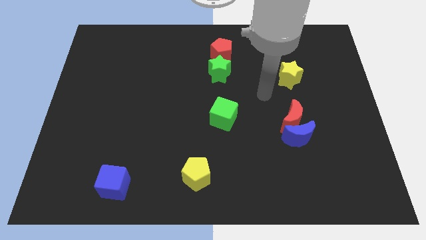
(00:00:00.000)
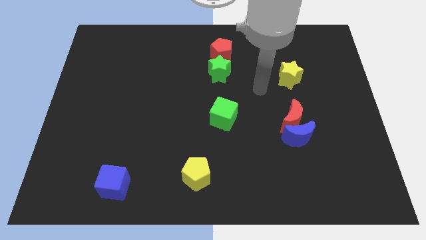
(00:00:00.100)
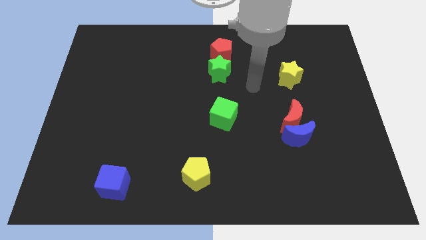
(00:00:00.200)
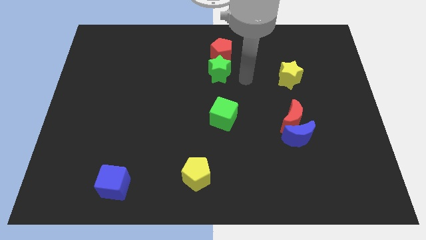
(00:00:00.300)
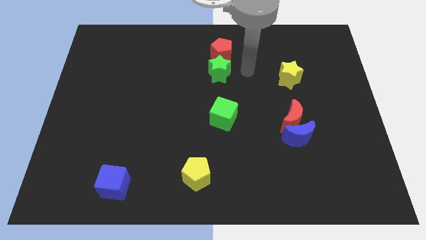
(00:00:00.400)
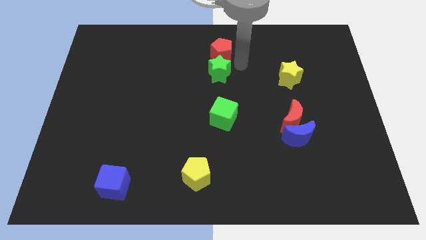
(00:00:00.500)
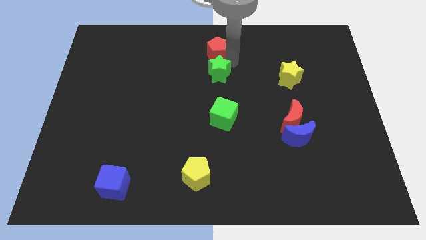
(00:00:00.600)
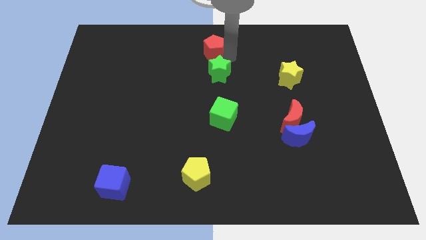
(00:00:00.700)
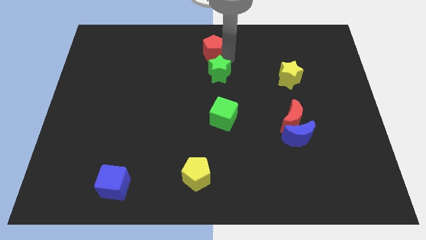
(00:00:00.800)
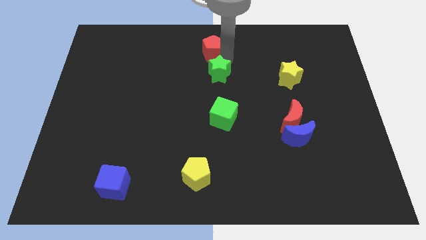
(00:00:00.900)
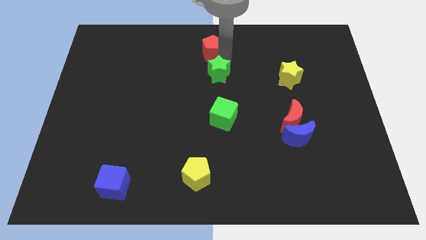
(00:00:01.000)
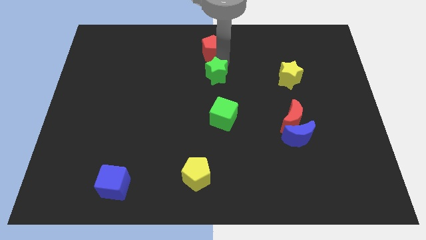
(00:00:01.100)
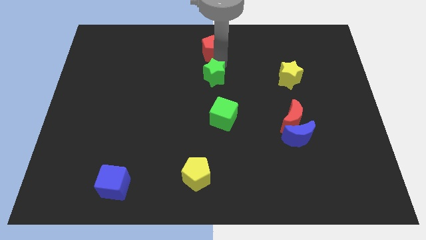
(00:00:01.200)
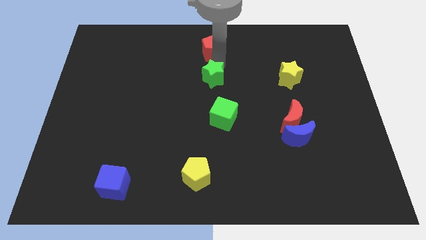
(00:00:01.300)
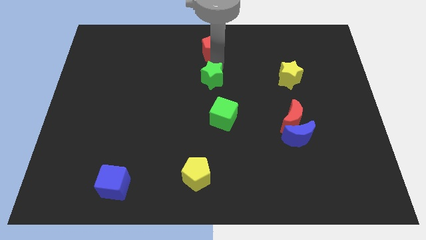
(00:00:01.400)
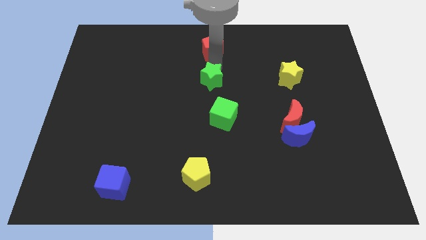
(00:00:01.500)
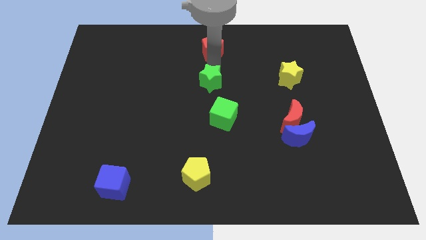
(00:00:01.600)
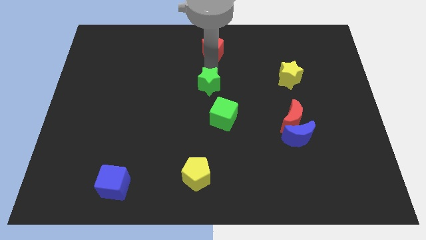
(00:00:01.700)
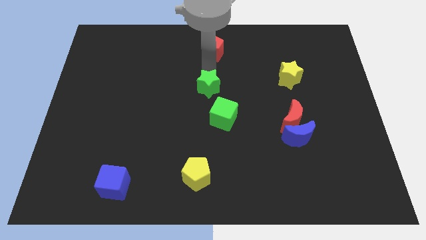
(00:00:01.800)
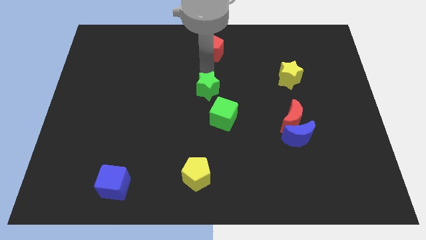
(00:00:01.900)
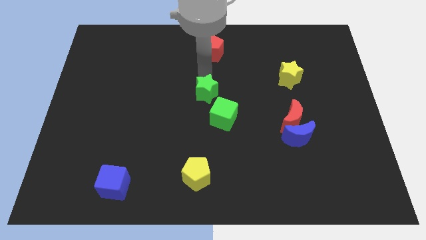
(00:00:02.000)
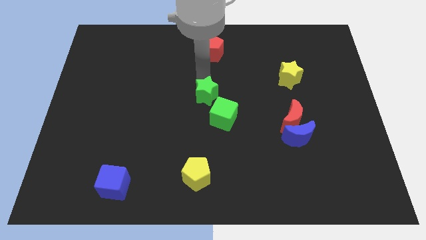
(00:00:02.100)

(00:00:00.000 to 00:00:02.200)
slide the green star down somewhat

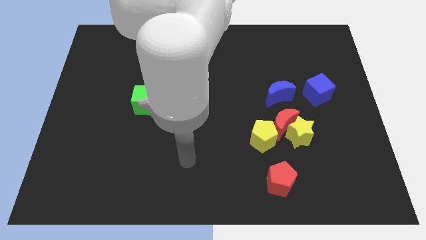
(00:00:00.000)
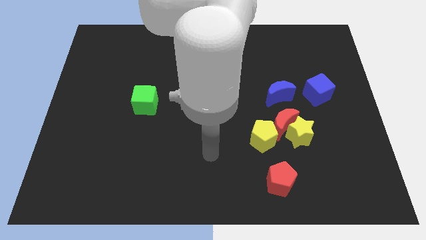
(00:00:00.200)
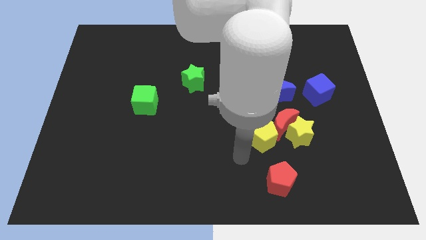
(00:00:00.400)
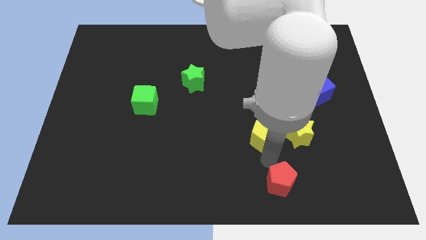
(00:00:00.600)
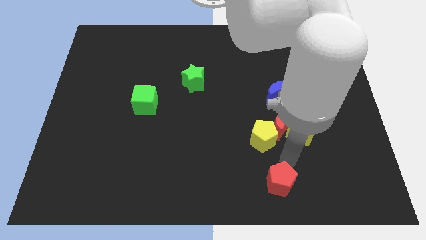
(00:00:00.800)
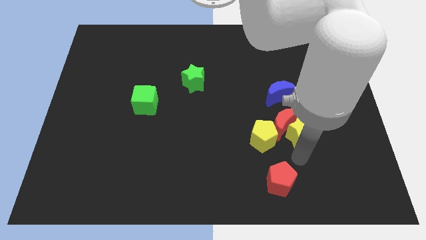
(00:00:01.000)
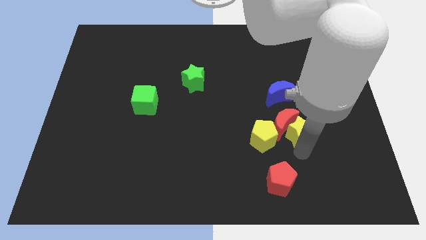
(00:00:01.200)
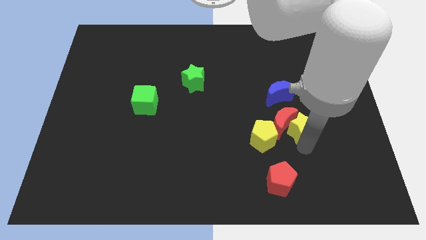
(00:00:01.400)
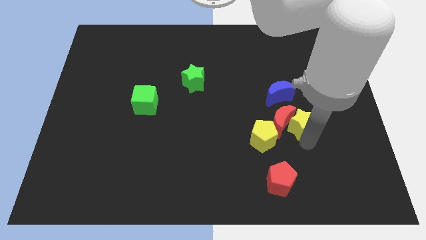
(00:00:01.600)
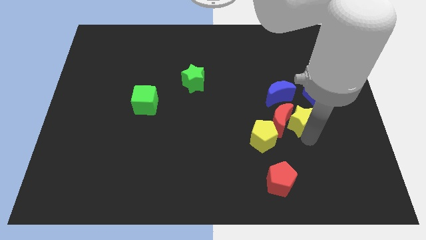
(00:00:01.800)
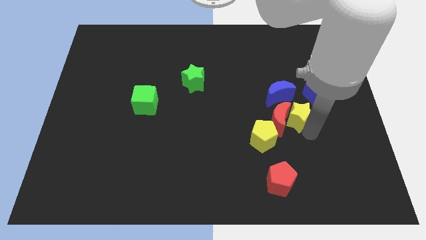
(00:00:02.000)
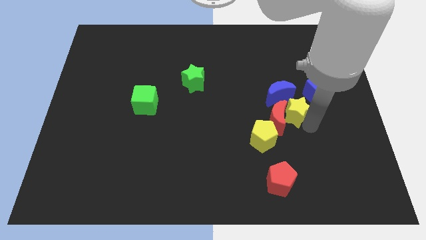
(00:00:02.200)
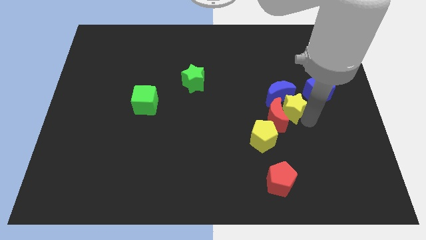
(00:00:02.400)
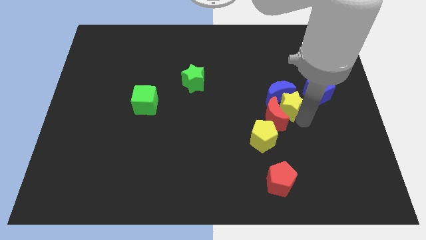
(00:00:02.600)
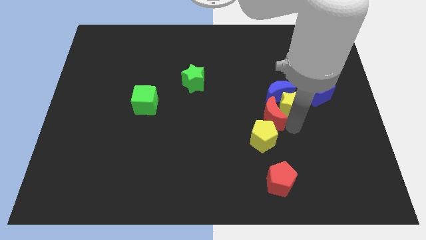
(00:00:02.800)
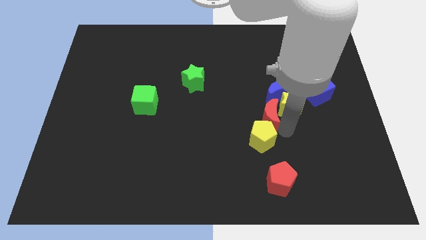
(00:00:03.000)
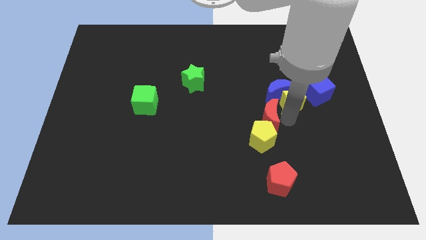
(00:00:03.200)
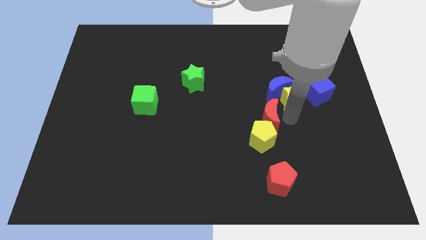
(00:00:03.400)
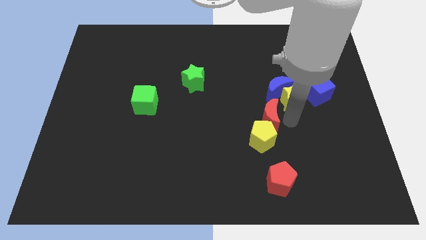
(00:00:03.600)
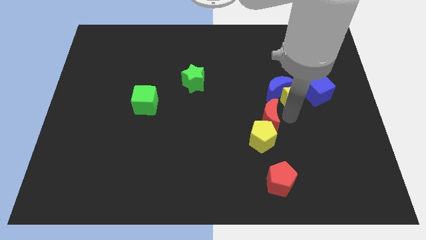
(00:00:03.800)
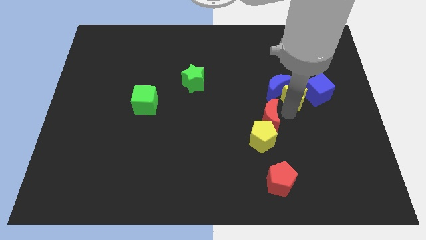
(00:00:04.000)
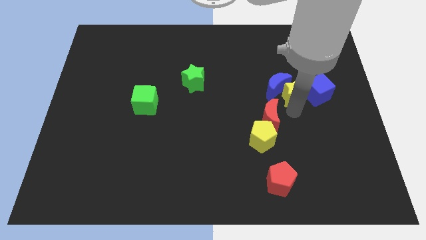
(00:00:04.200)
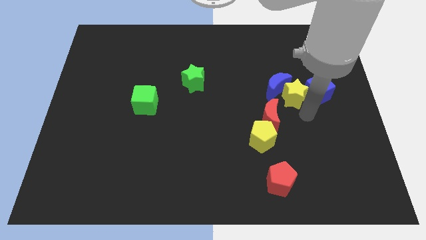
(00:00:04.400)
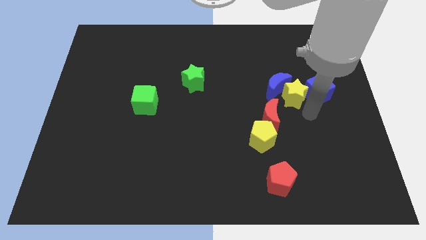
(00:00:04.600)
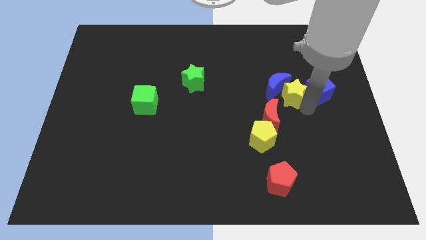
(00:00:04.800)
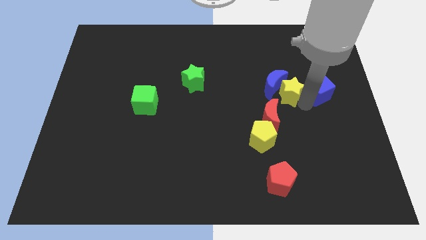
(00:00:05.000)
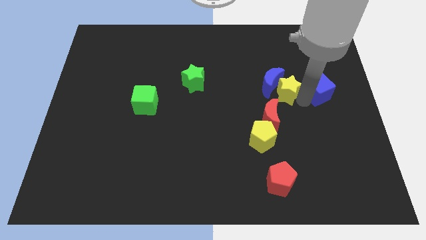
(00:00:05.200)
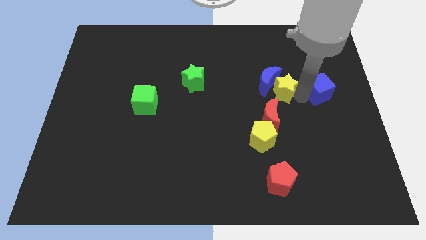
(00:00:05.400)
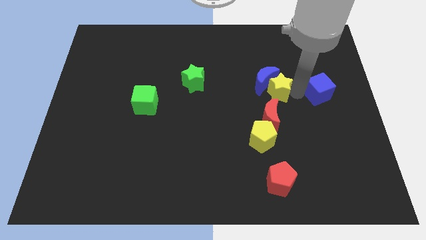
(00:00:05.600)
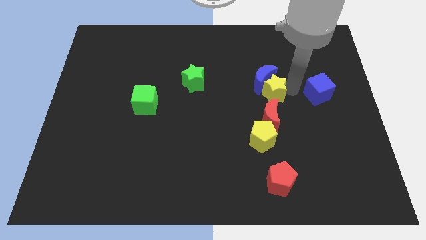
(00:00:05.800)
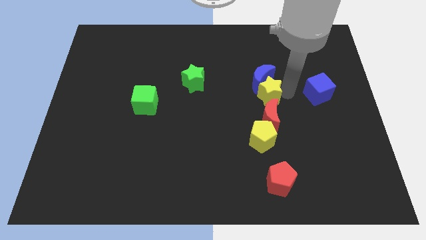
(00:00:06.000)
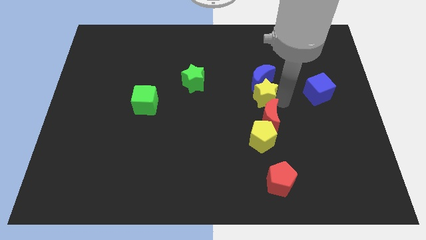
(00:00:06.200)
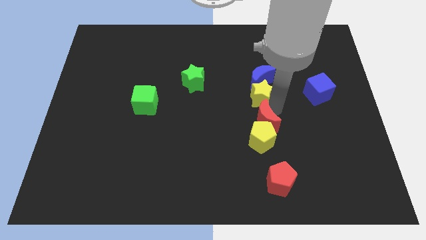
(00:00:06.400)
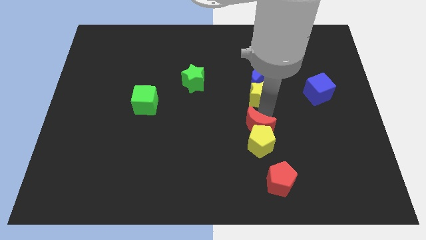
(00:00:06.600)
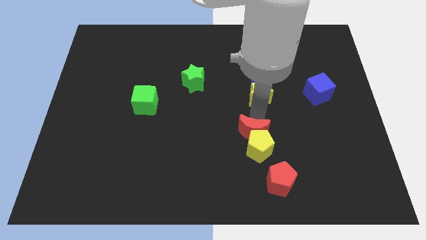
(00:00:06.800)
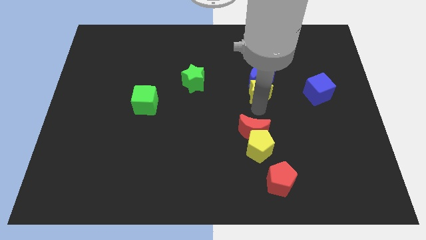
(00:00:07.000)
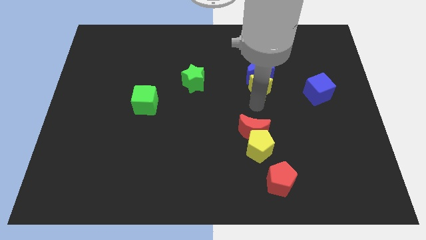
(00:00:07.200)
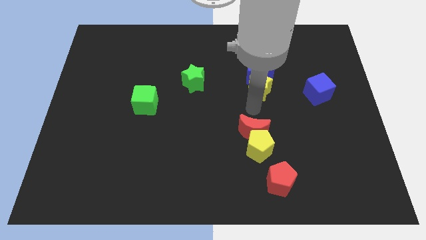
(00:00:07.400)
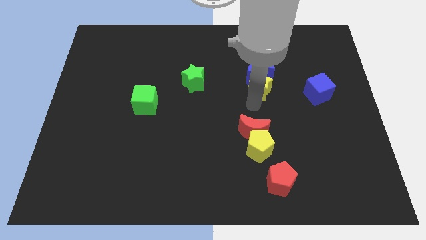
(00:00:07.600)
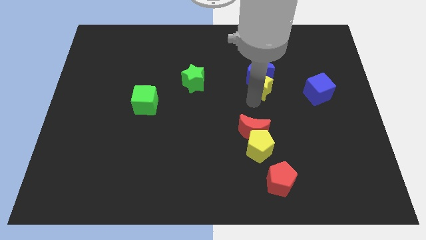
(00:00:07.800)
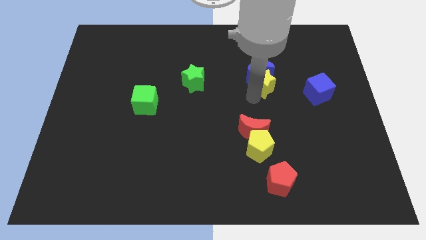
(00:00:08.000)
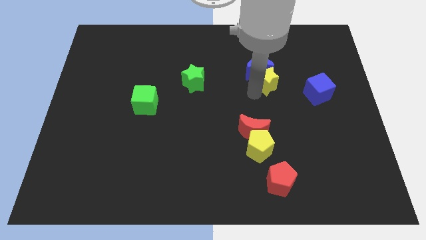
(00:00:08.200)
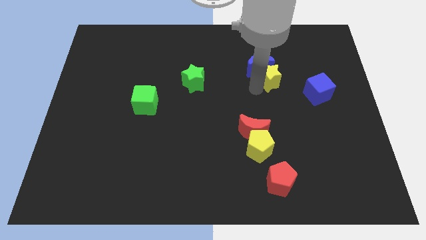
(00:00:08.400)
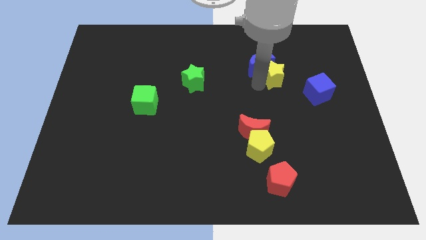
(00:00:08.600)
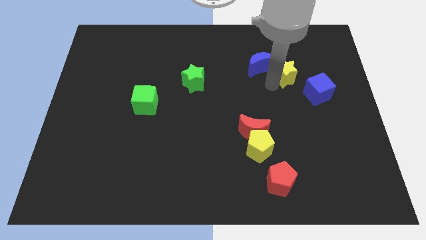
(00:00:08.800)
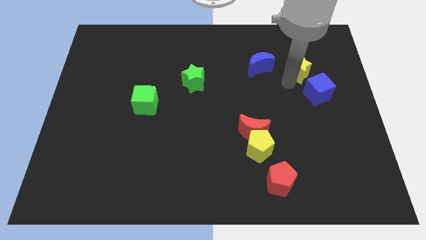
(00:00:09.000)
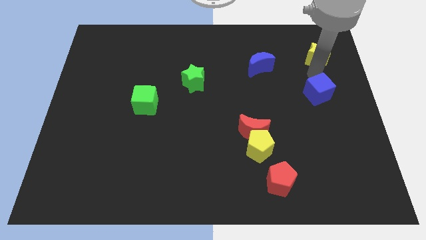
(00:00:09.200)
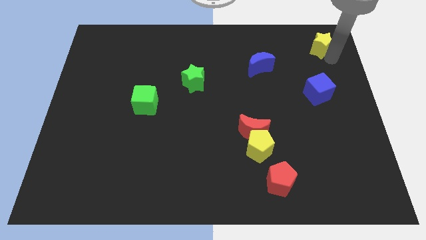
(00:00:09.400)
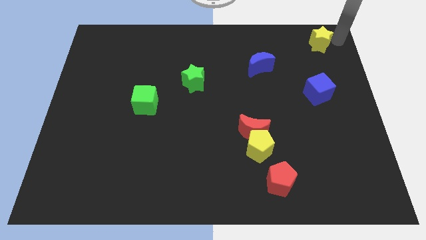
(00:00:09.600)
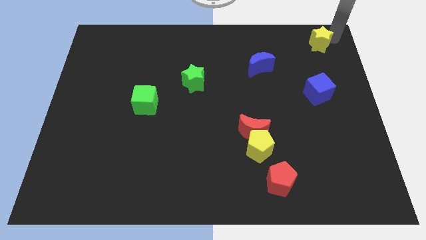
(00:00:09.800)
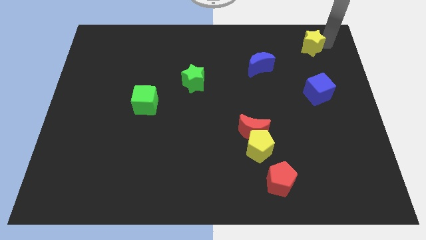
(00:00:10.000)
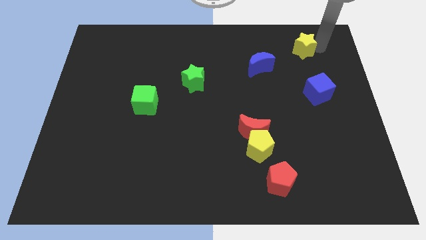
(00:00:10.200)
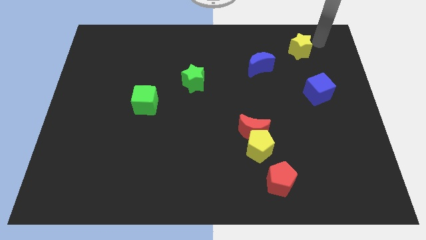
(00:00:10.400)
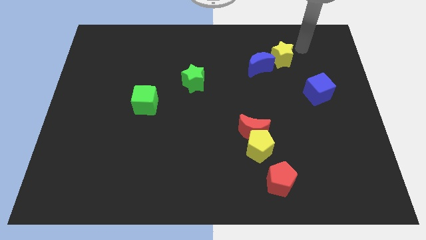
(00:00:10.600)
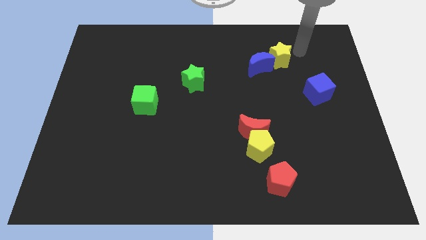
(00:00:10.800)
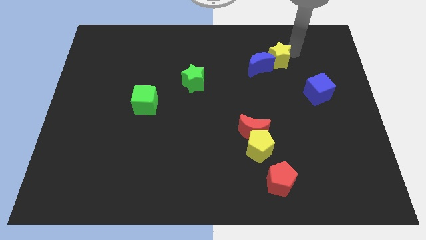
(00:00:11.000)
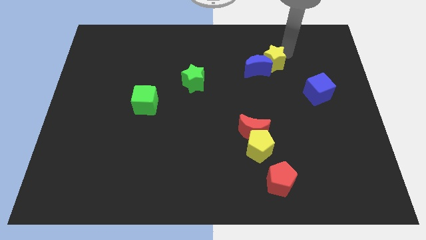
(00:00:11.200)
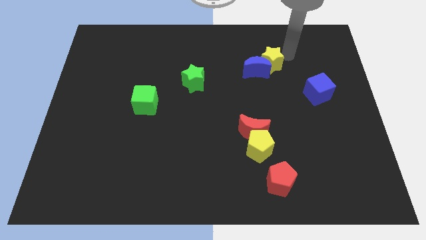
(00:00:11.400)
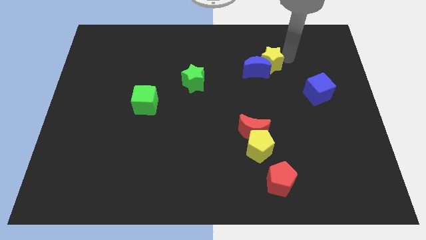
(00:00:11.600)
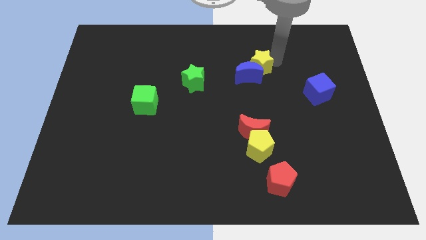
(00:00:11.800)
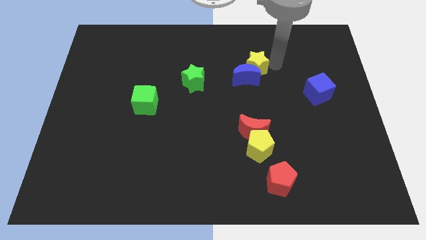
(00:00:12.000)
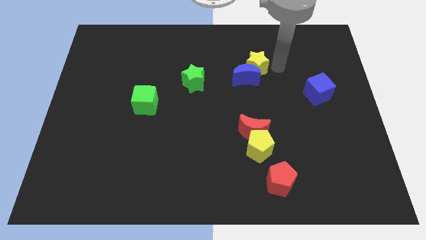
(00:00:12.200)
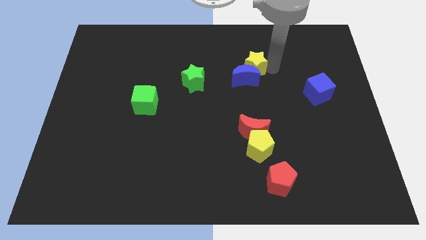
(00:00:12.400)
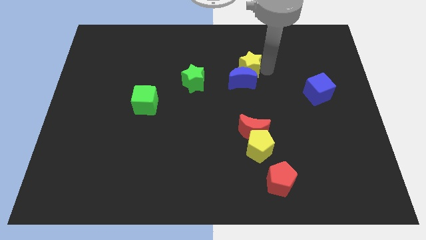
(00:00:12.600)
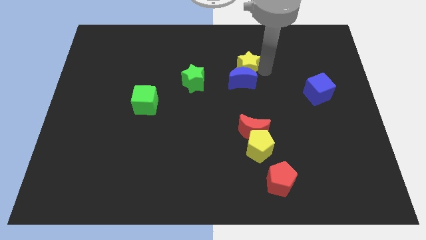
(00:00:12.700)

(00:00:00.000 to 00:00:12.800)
move the yellow star upwards and to the left diagonally
